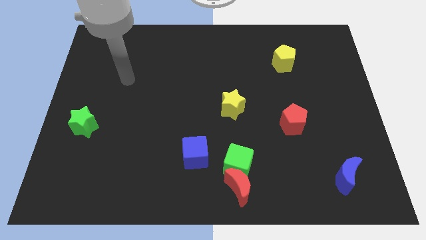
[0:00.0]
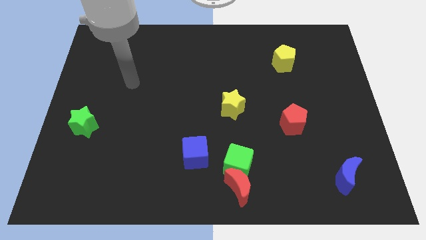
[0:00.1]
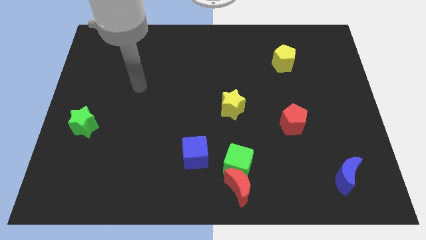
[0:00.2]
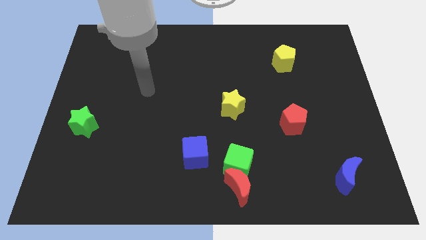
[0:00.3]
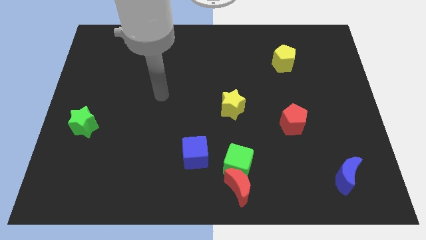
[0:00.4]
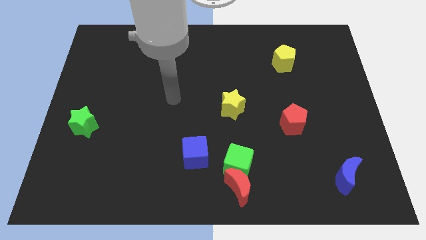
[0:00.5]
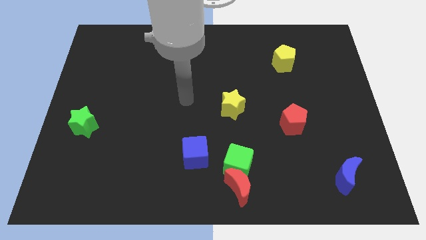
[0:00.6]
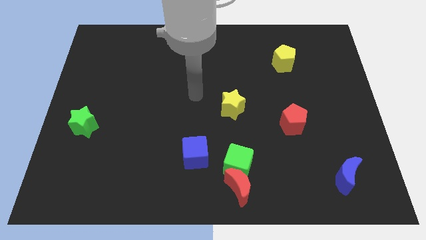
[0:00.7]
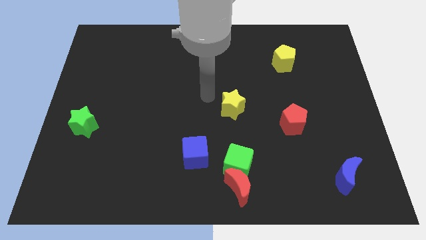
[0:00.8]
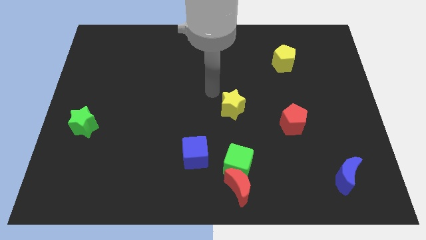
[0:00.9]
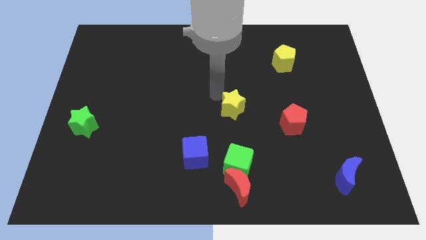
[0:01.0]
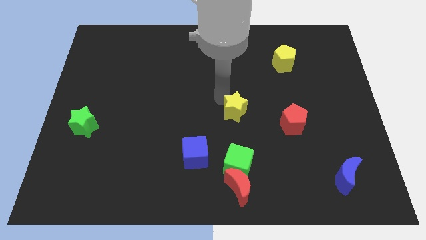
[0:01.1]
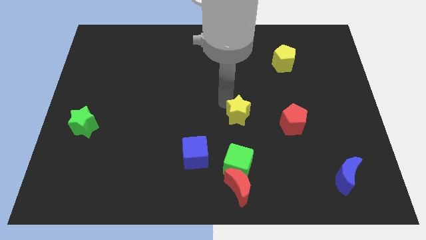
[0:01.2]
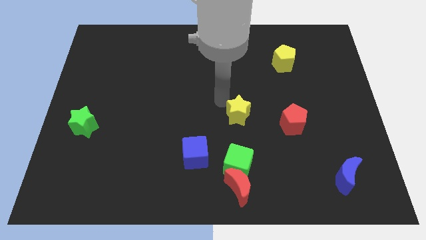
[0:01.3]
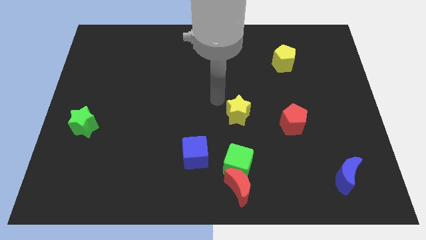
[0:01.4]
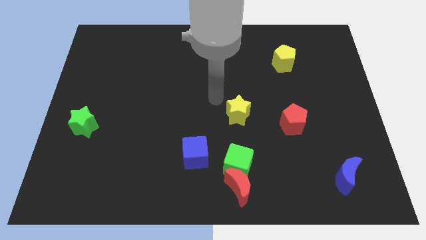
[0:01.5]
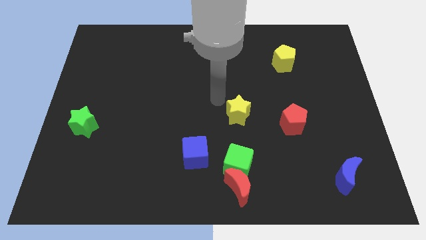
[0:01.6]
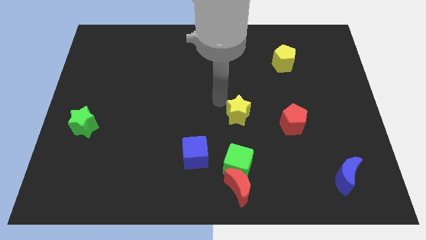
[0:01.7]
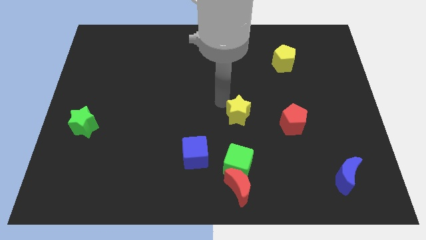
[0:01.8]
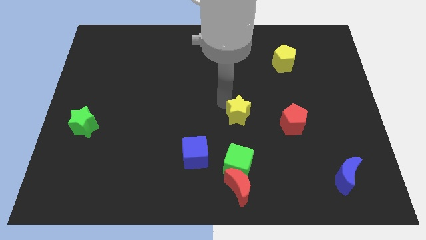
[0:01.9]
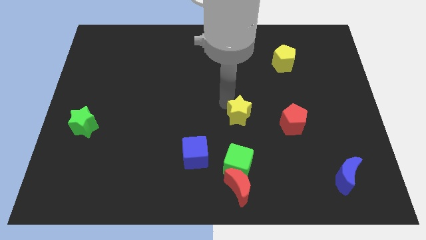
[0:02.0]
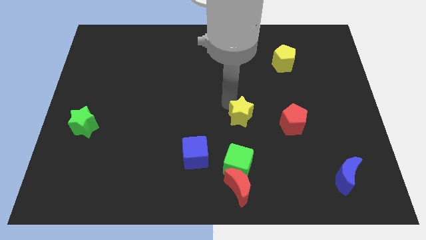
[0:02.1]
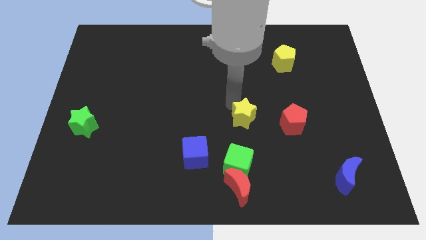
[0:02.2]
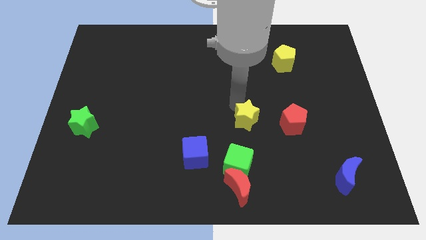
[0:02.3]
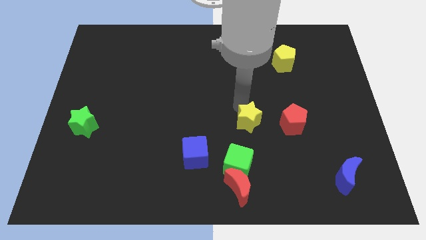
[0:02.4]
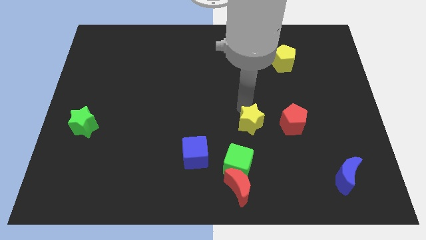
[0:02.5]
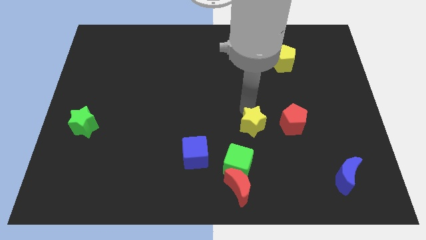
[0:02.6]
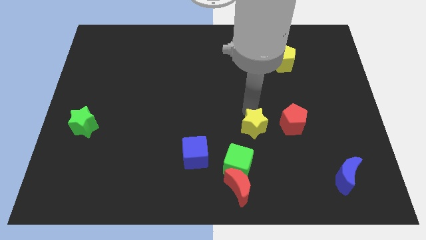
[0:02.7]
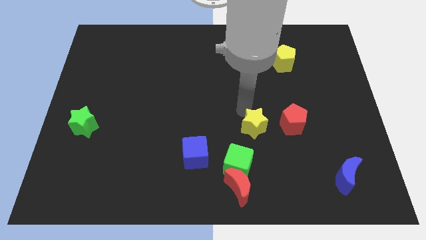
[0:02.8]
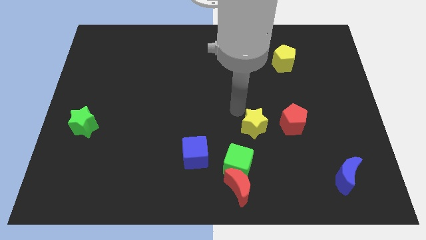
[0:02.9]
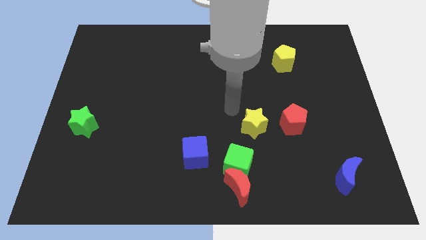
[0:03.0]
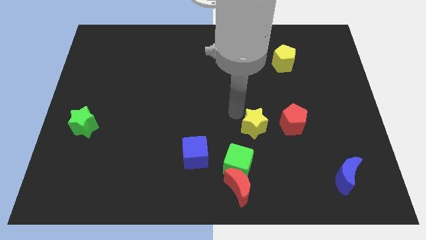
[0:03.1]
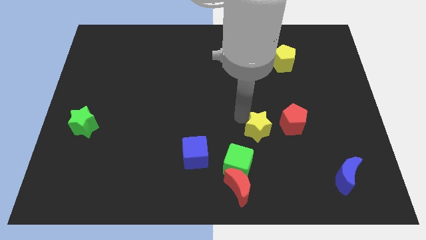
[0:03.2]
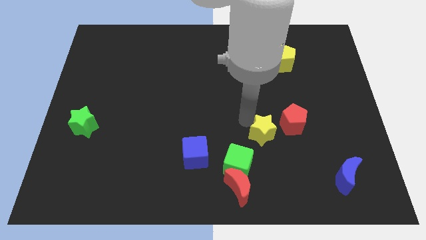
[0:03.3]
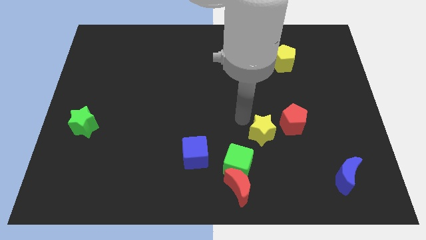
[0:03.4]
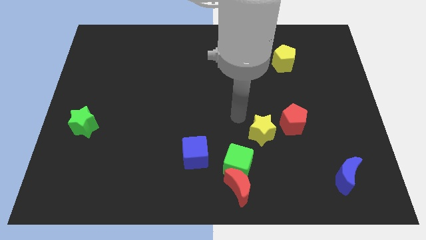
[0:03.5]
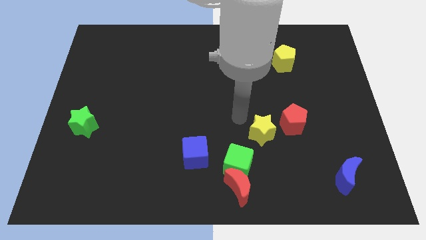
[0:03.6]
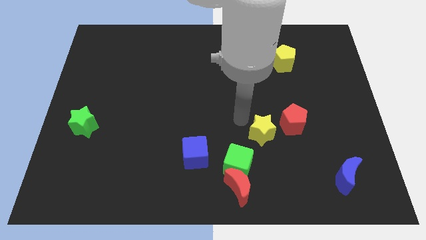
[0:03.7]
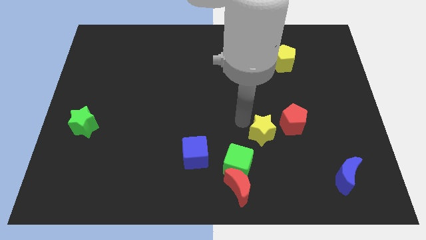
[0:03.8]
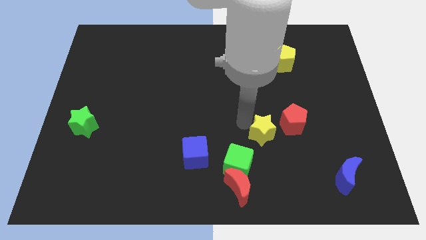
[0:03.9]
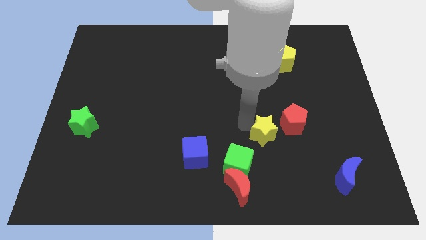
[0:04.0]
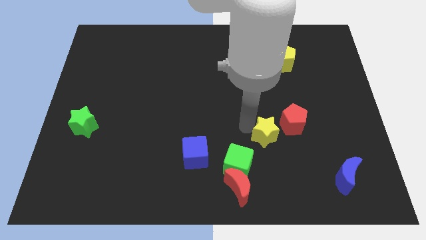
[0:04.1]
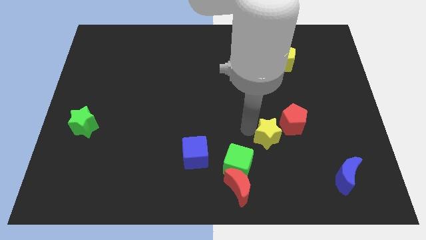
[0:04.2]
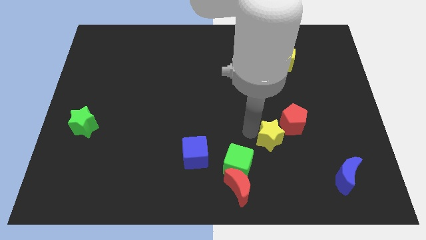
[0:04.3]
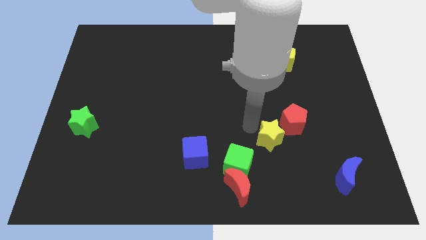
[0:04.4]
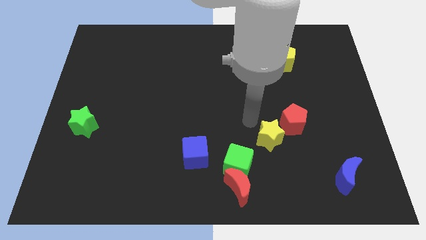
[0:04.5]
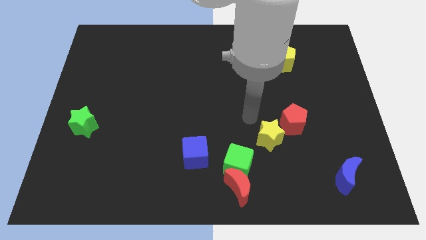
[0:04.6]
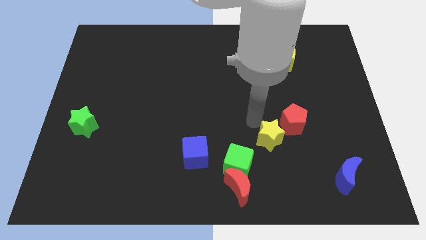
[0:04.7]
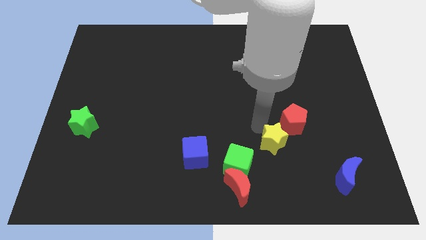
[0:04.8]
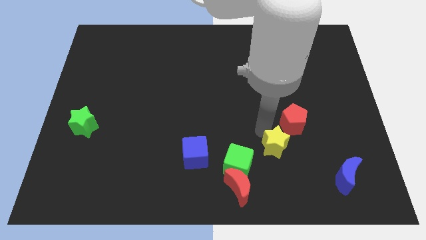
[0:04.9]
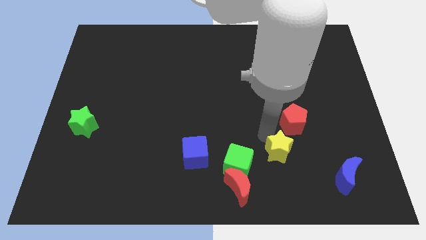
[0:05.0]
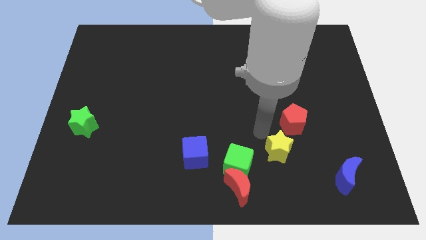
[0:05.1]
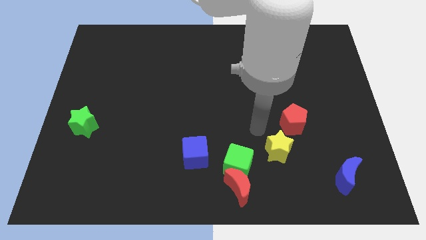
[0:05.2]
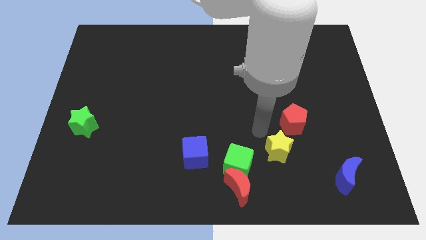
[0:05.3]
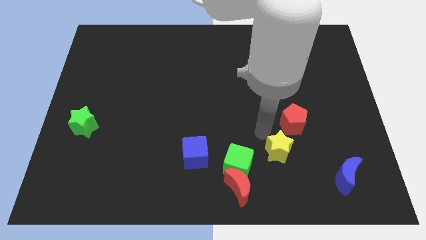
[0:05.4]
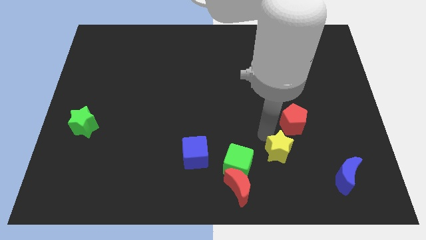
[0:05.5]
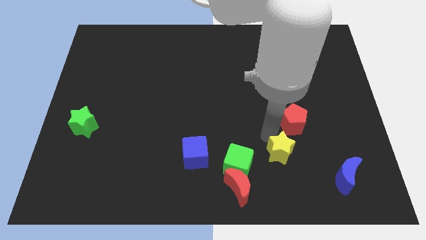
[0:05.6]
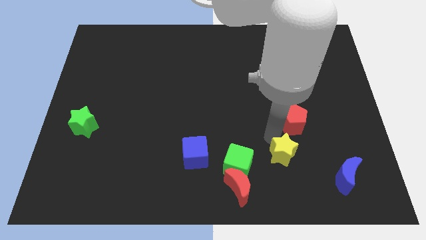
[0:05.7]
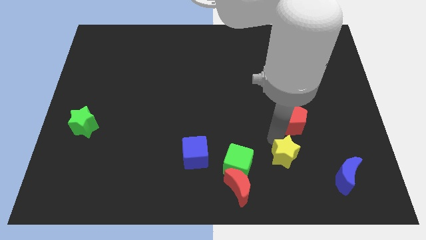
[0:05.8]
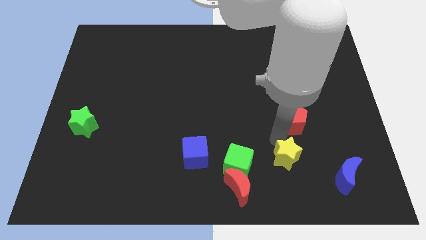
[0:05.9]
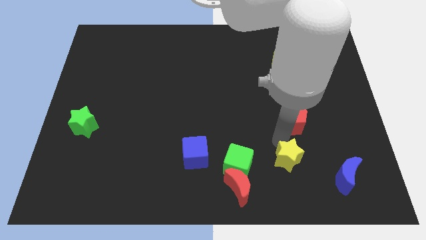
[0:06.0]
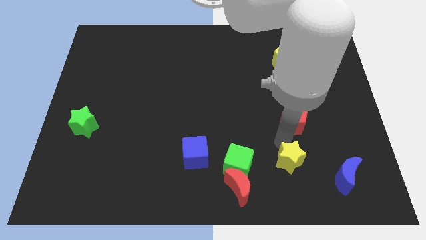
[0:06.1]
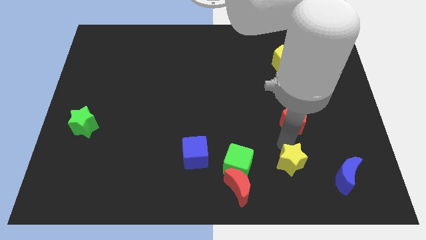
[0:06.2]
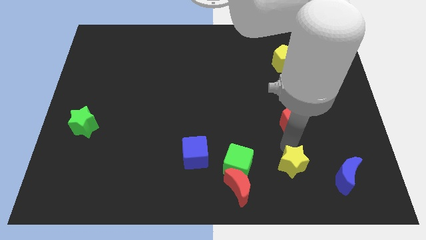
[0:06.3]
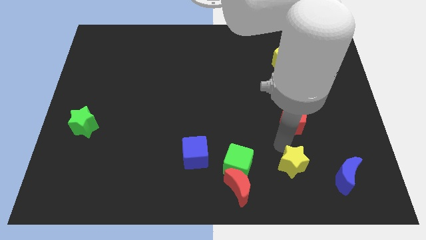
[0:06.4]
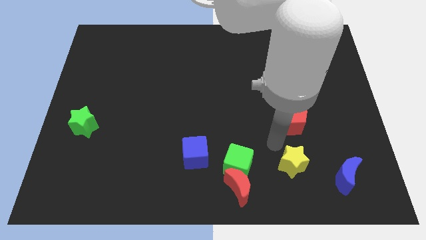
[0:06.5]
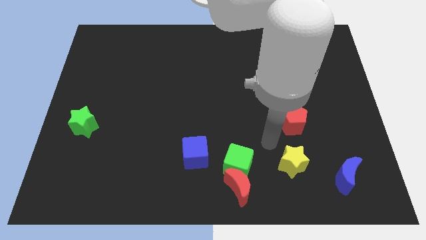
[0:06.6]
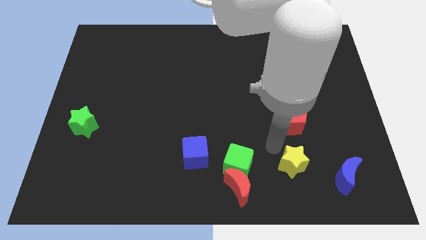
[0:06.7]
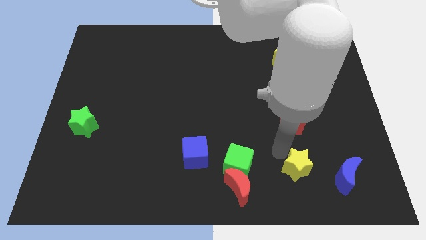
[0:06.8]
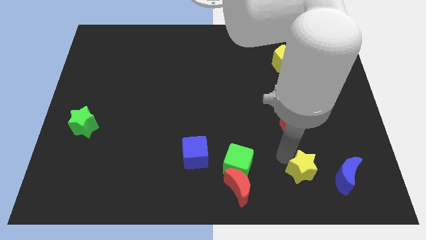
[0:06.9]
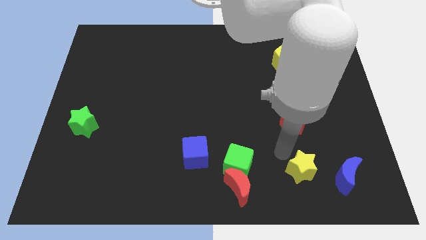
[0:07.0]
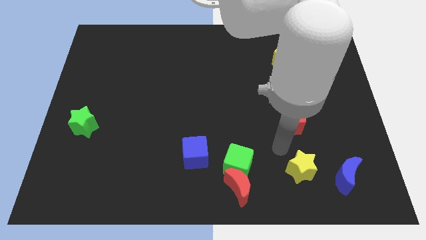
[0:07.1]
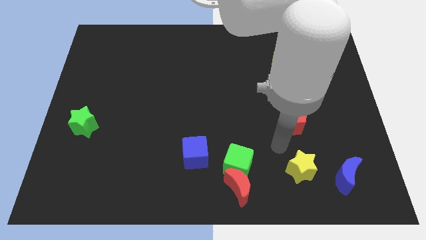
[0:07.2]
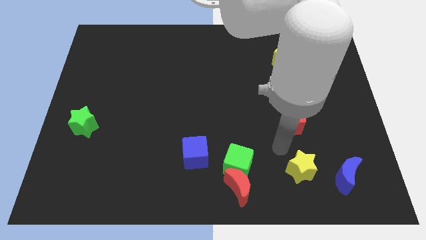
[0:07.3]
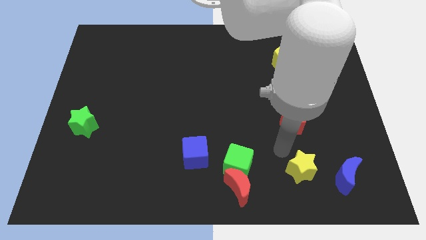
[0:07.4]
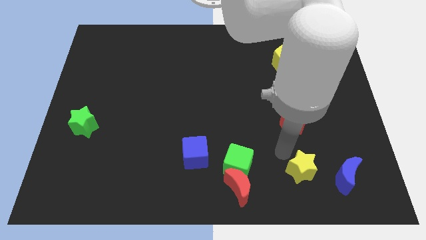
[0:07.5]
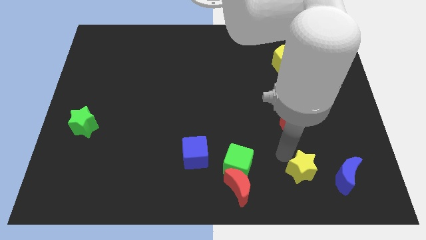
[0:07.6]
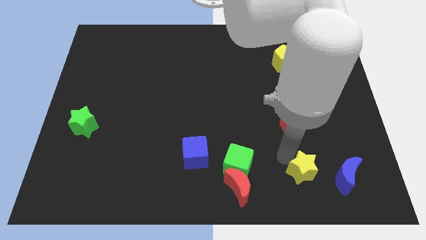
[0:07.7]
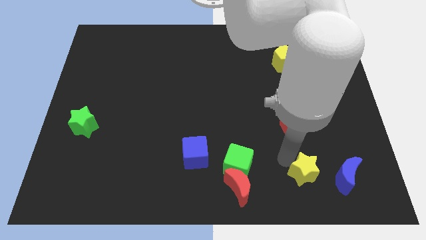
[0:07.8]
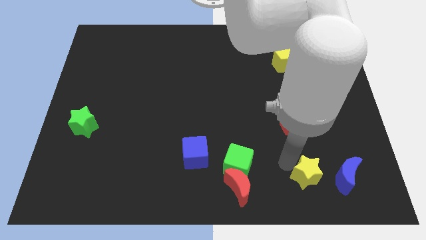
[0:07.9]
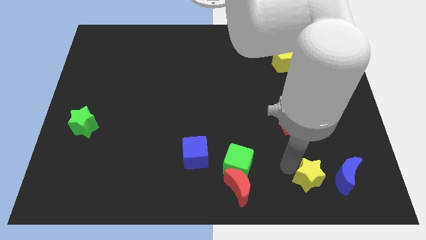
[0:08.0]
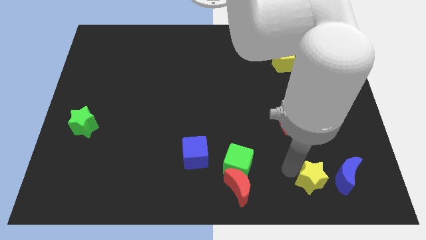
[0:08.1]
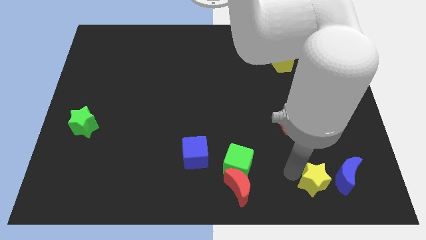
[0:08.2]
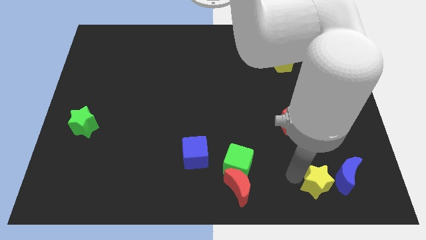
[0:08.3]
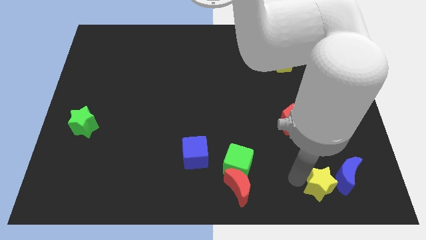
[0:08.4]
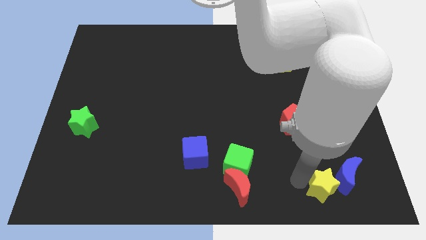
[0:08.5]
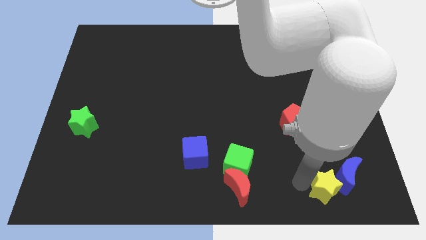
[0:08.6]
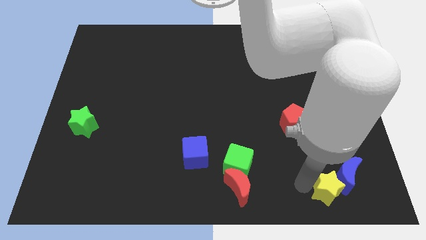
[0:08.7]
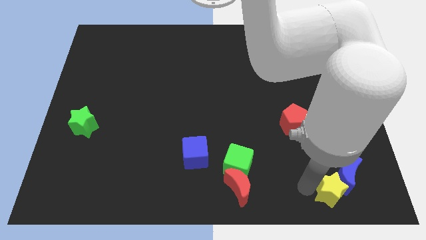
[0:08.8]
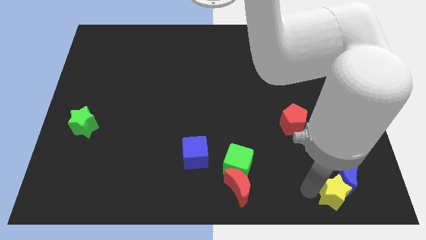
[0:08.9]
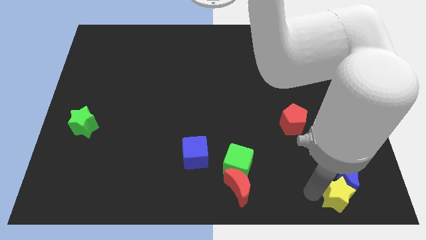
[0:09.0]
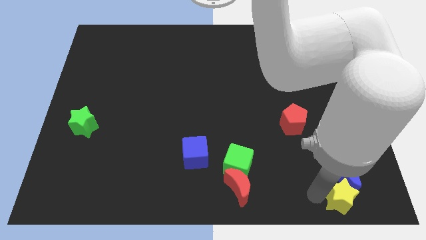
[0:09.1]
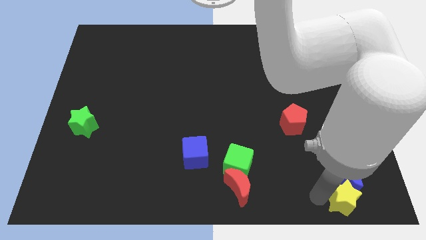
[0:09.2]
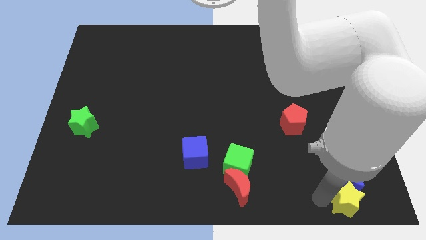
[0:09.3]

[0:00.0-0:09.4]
move the yellow star to the bottom right of the board
